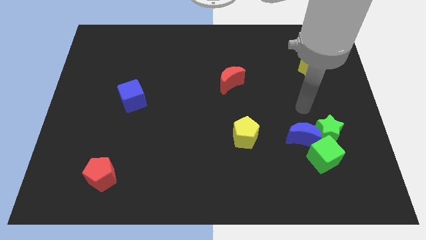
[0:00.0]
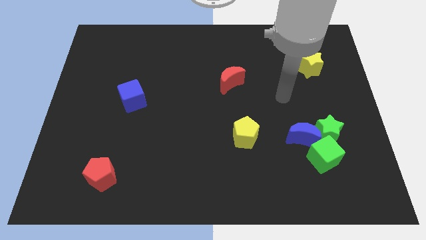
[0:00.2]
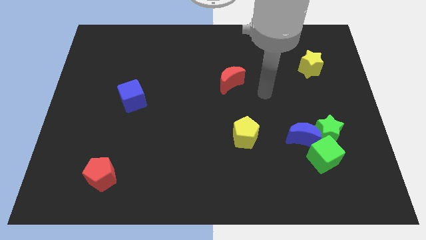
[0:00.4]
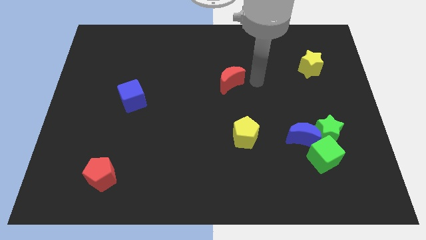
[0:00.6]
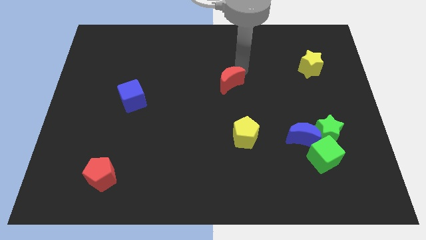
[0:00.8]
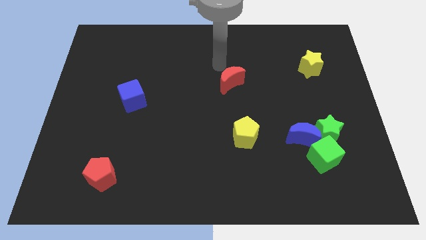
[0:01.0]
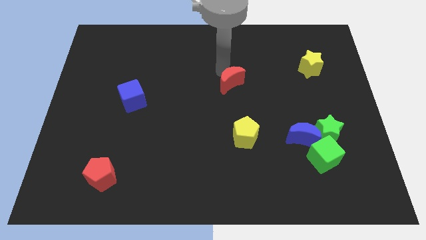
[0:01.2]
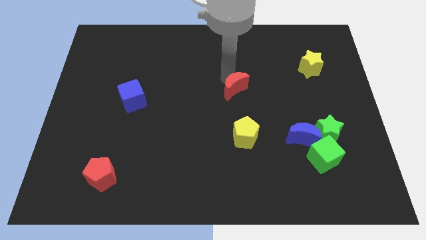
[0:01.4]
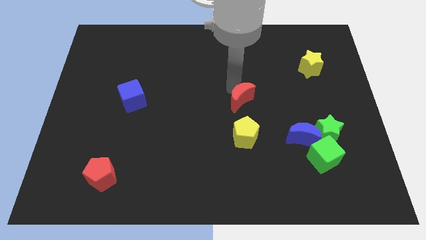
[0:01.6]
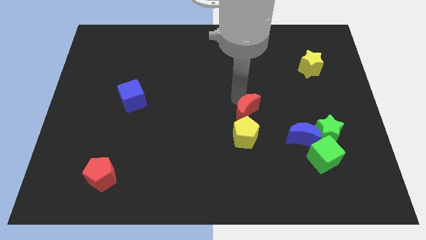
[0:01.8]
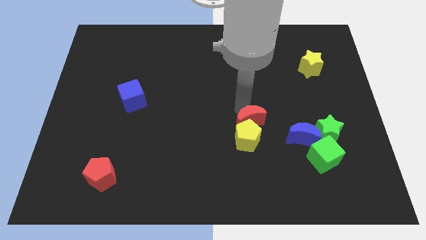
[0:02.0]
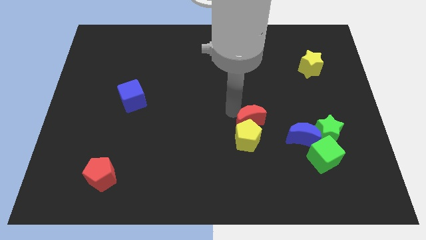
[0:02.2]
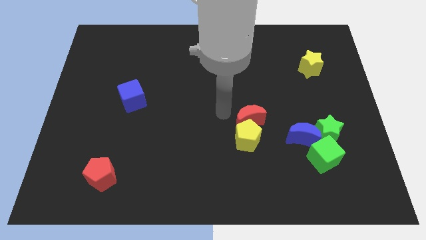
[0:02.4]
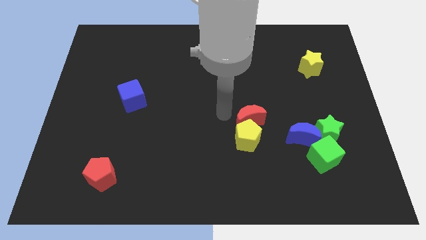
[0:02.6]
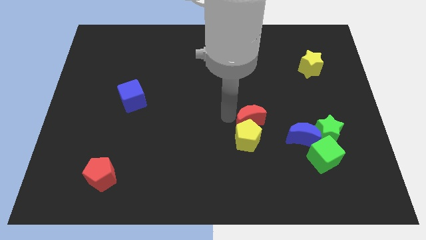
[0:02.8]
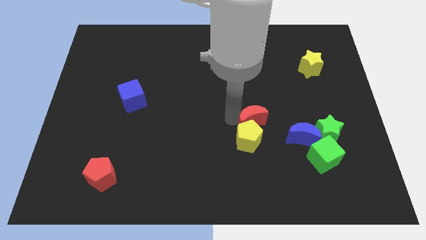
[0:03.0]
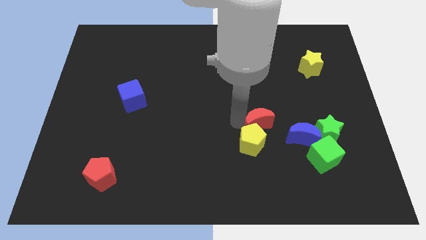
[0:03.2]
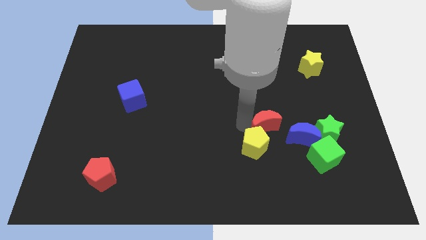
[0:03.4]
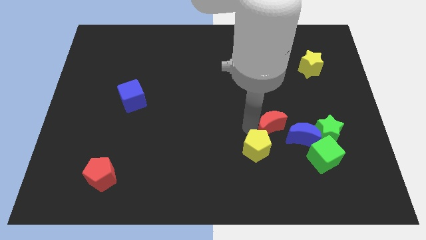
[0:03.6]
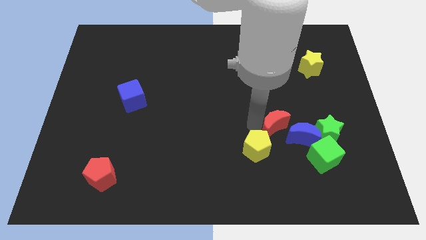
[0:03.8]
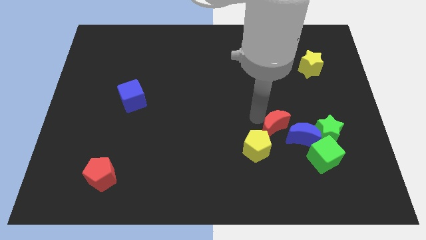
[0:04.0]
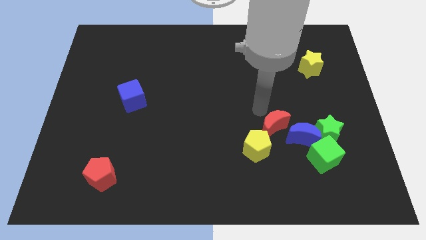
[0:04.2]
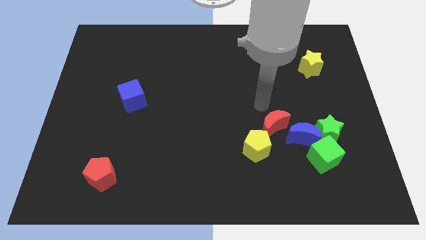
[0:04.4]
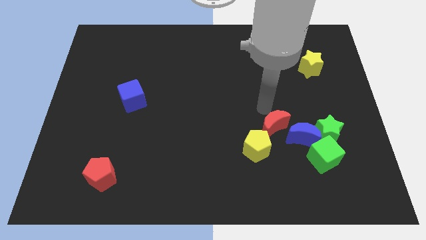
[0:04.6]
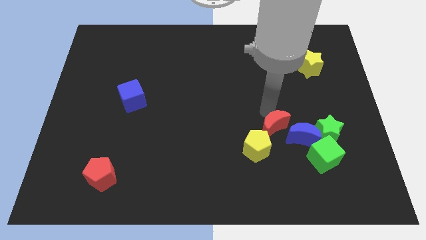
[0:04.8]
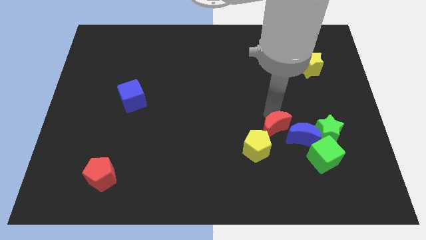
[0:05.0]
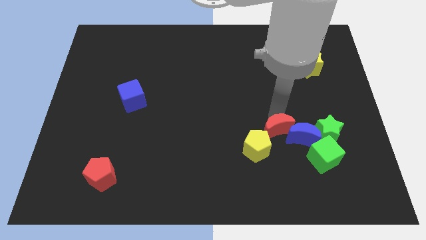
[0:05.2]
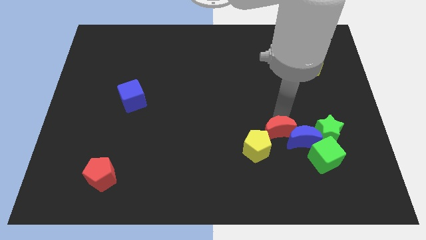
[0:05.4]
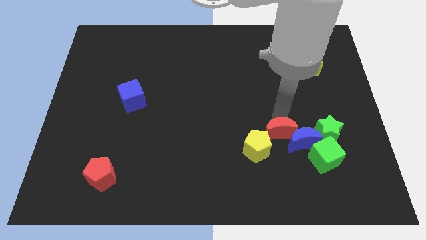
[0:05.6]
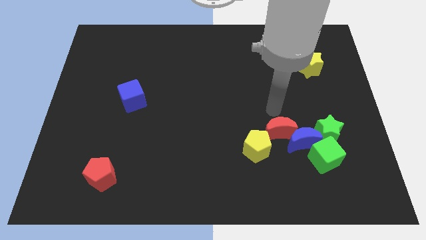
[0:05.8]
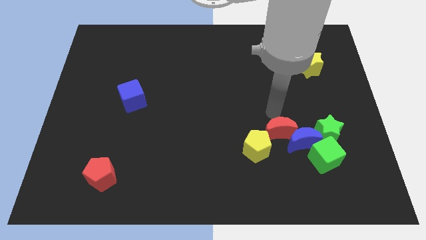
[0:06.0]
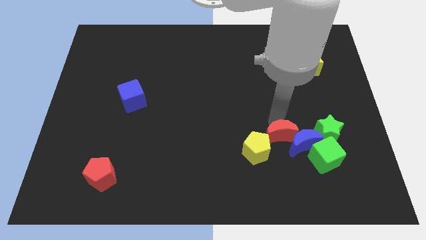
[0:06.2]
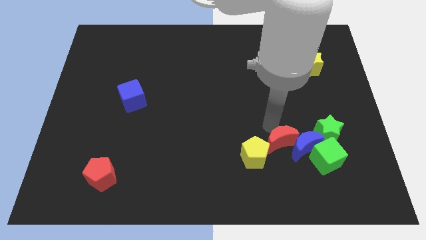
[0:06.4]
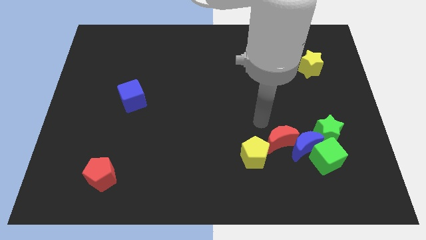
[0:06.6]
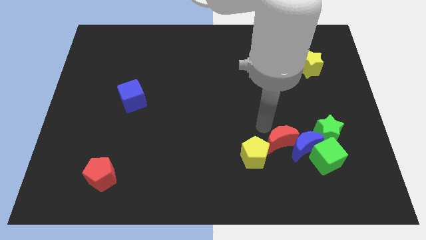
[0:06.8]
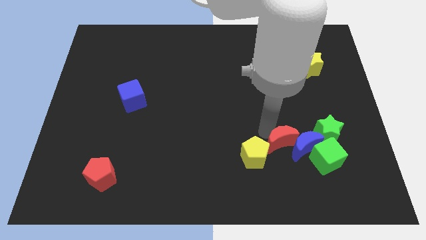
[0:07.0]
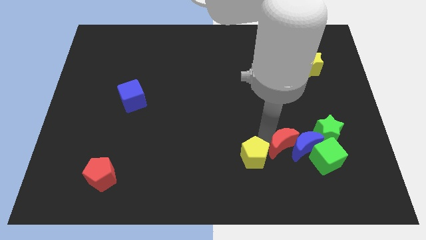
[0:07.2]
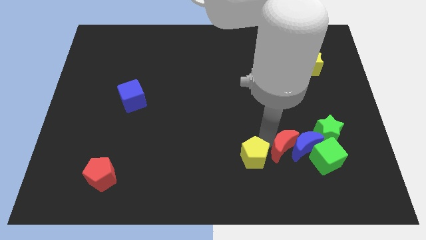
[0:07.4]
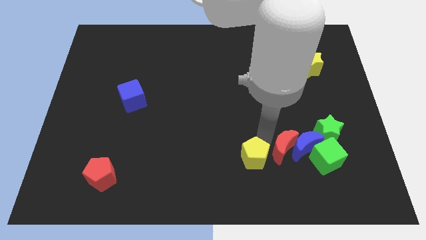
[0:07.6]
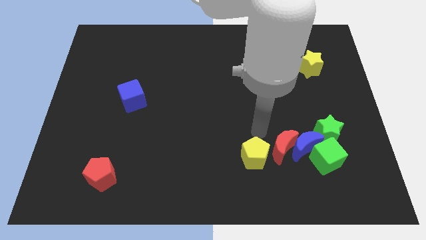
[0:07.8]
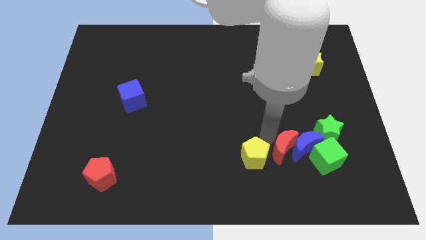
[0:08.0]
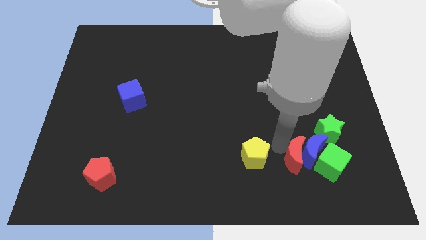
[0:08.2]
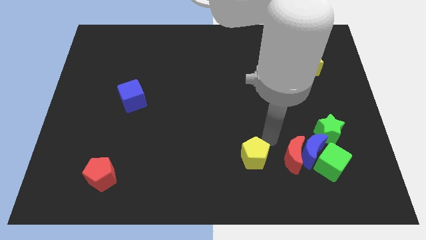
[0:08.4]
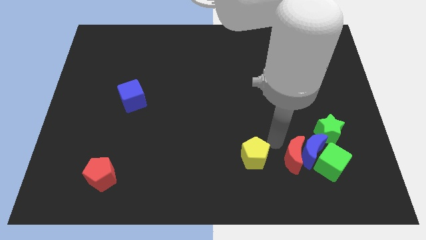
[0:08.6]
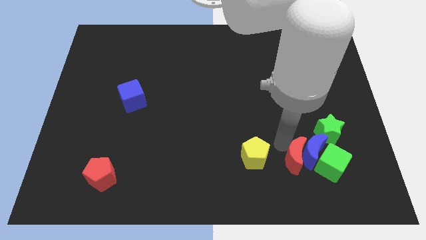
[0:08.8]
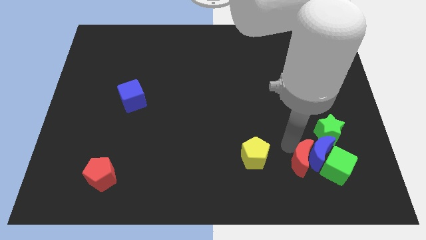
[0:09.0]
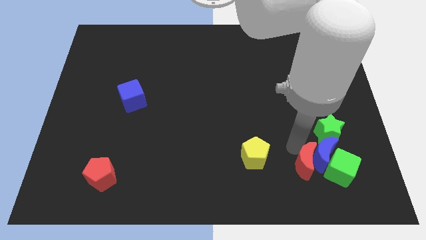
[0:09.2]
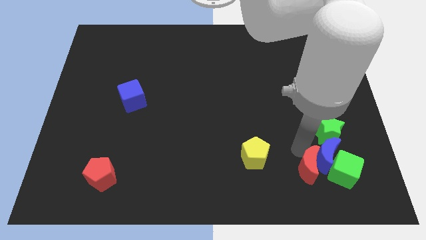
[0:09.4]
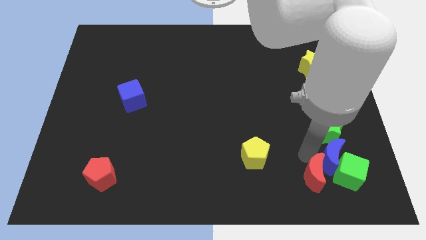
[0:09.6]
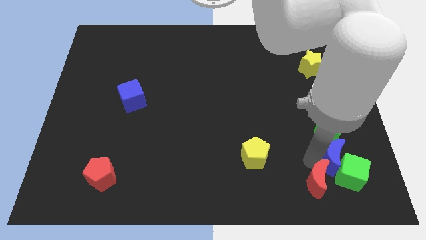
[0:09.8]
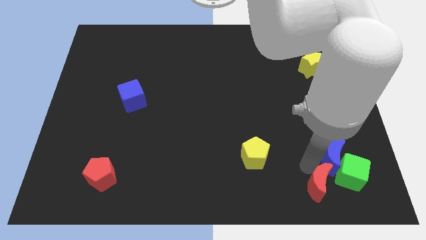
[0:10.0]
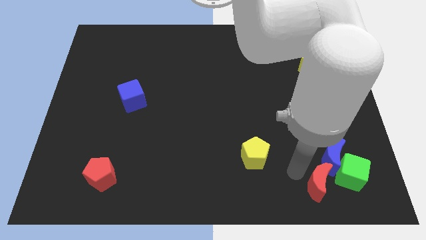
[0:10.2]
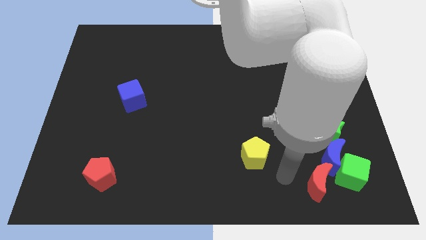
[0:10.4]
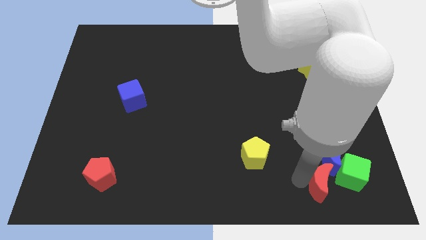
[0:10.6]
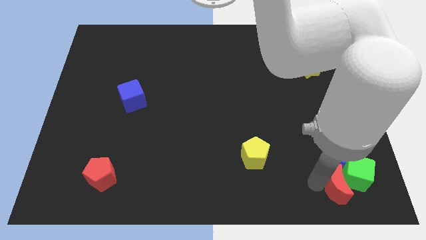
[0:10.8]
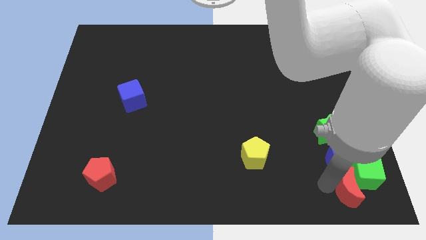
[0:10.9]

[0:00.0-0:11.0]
slide the red moon to the bottom right

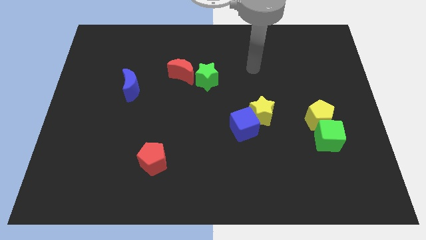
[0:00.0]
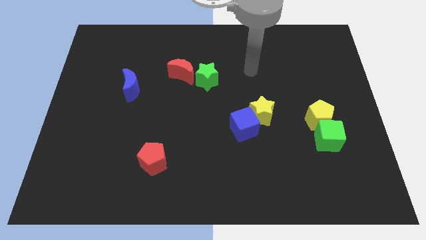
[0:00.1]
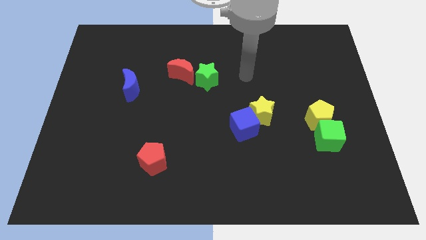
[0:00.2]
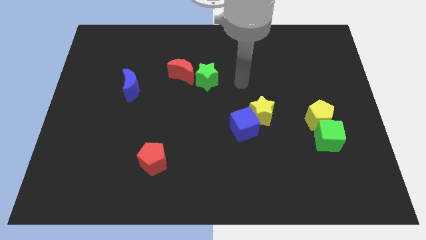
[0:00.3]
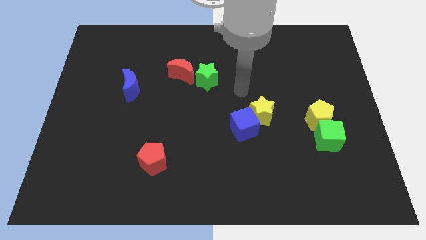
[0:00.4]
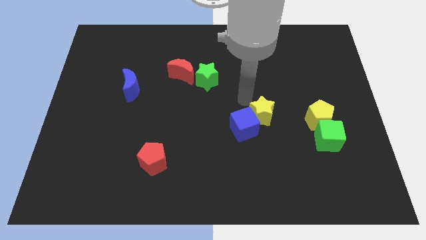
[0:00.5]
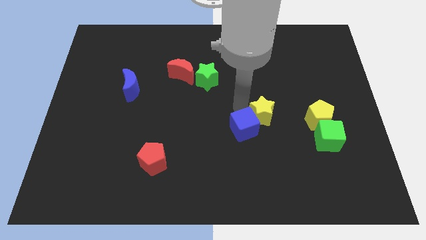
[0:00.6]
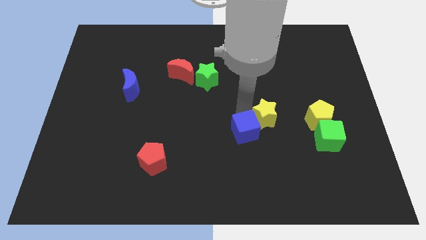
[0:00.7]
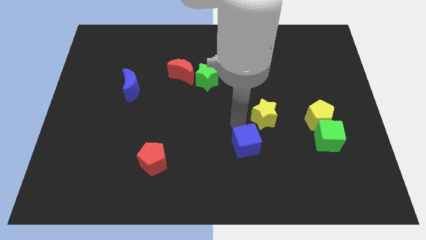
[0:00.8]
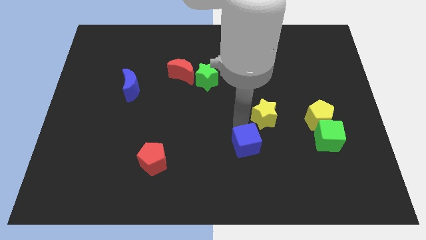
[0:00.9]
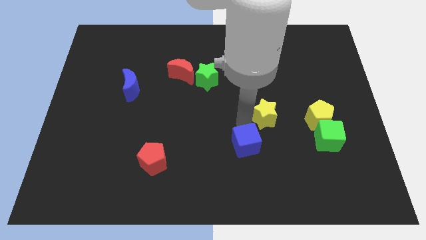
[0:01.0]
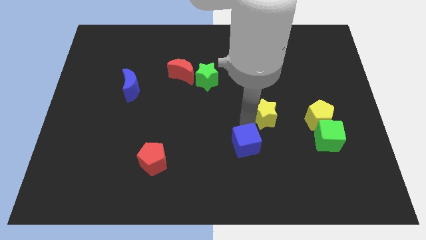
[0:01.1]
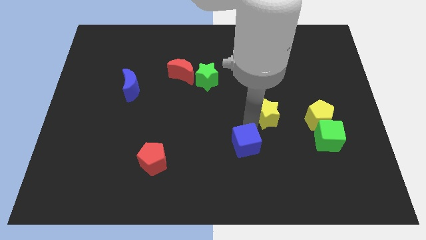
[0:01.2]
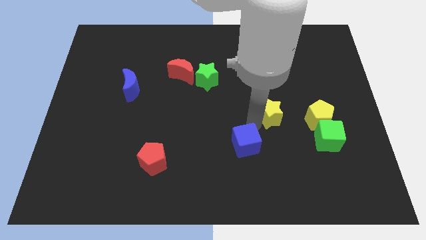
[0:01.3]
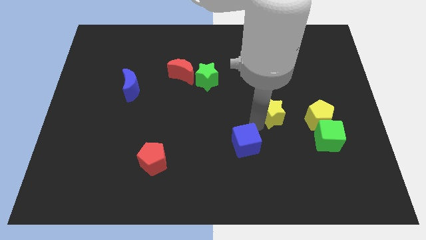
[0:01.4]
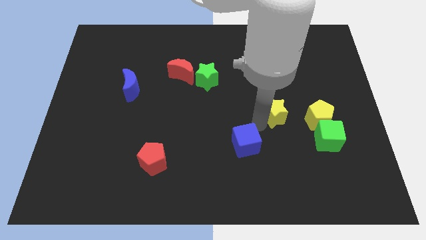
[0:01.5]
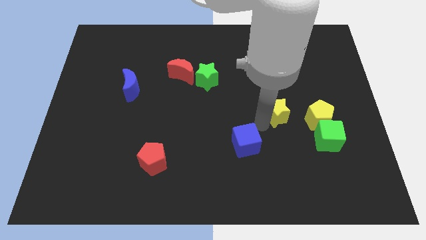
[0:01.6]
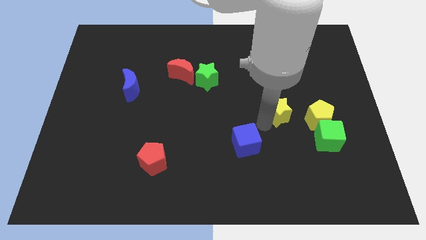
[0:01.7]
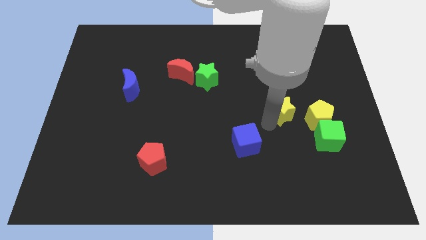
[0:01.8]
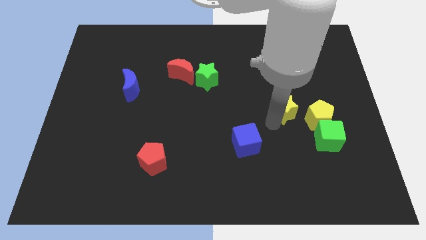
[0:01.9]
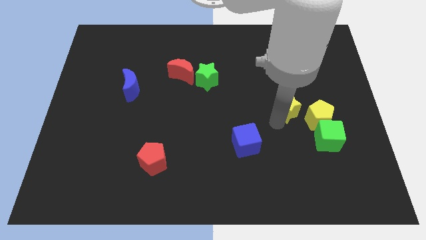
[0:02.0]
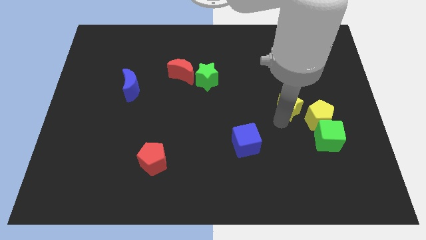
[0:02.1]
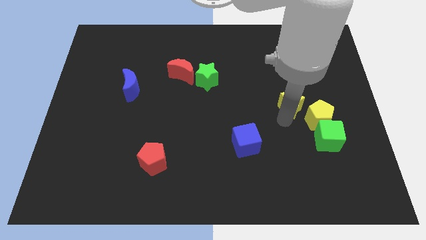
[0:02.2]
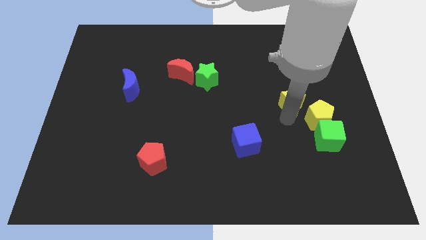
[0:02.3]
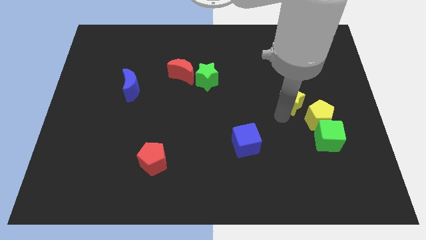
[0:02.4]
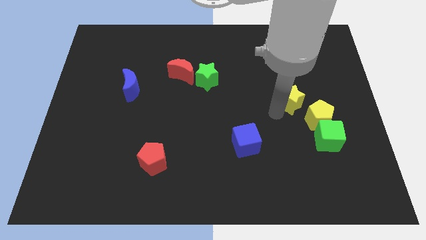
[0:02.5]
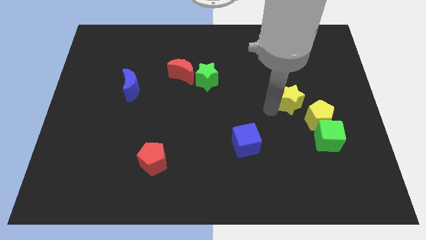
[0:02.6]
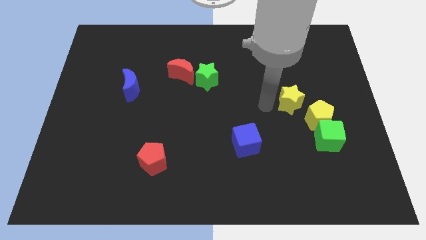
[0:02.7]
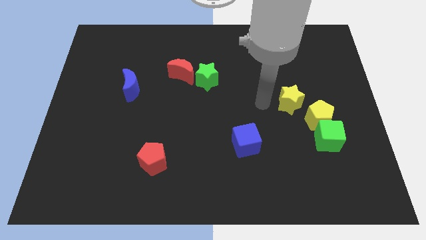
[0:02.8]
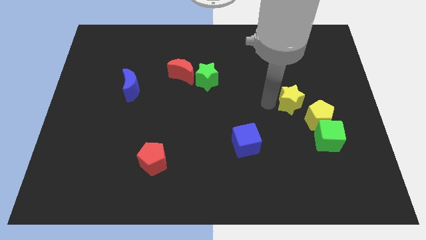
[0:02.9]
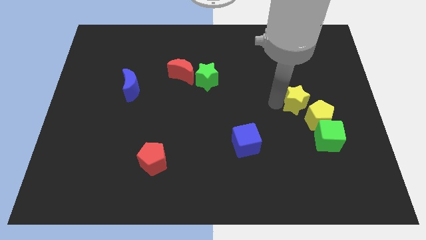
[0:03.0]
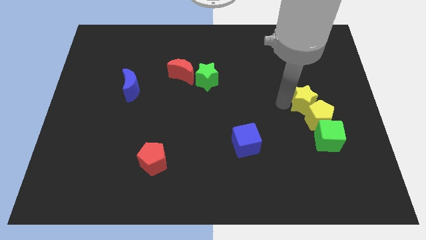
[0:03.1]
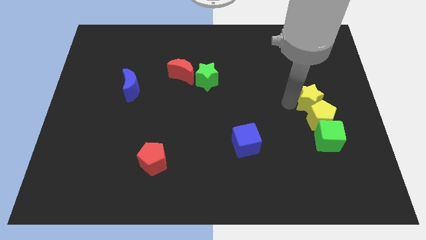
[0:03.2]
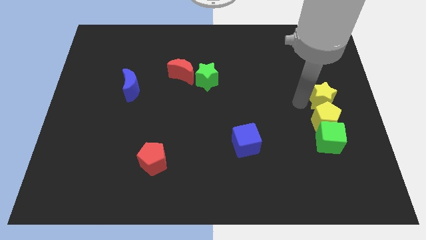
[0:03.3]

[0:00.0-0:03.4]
move the yellow star to the right side
